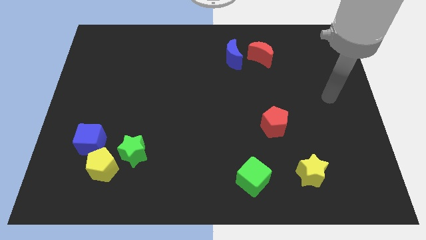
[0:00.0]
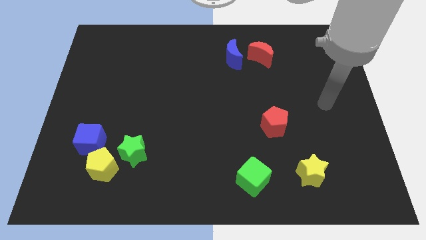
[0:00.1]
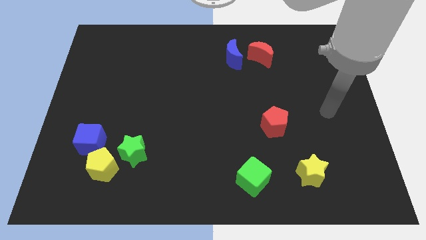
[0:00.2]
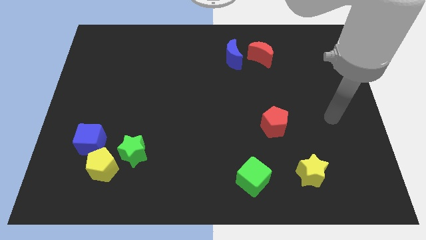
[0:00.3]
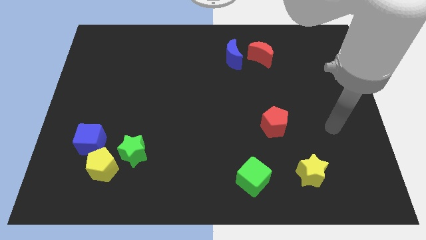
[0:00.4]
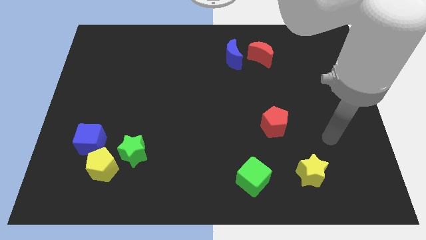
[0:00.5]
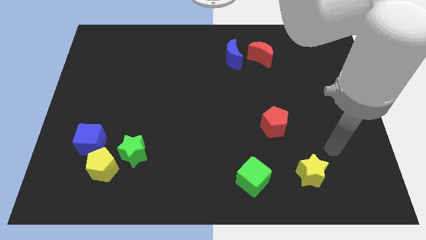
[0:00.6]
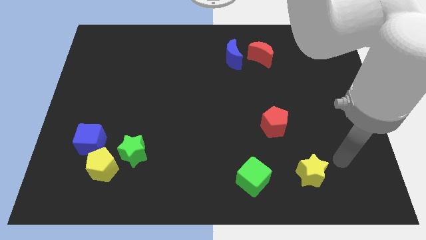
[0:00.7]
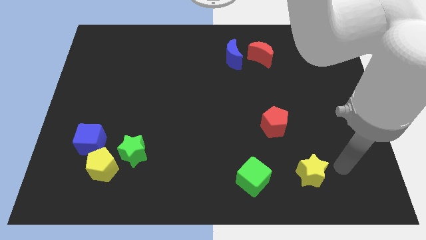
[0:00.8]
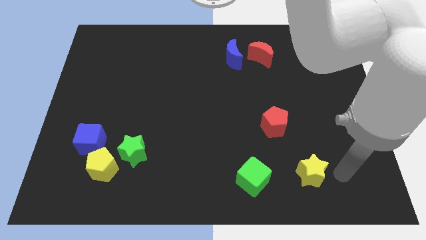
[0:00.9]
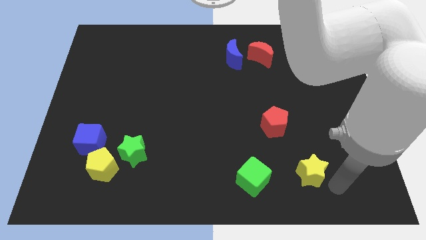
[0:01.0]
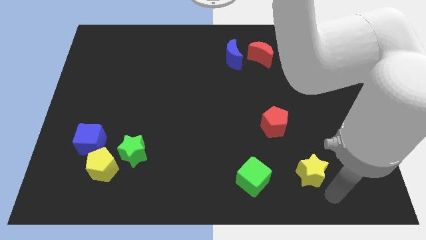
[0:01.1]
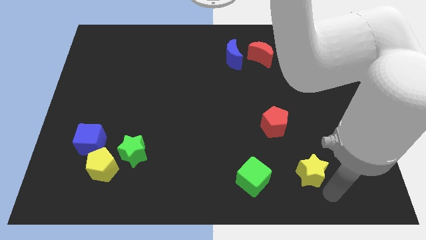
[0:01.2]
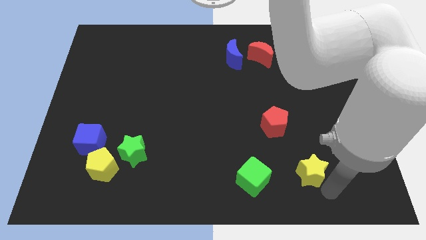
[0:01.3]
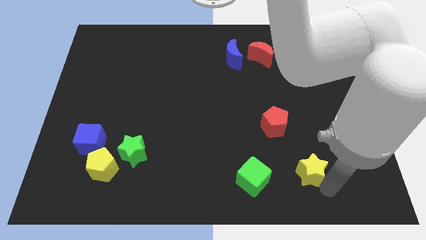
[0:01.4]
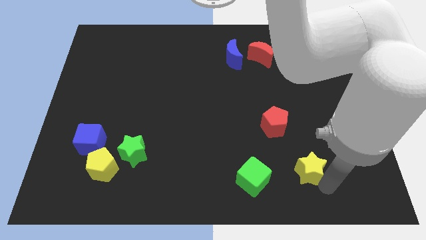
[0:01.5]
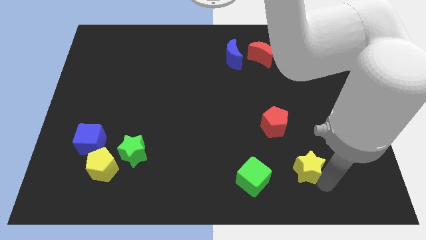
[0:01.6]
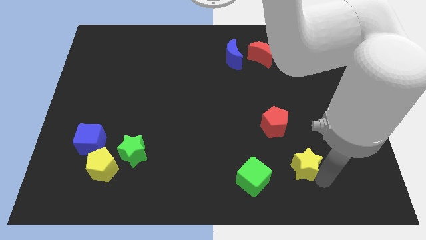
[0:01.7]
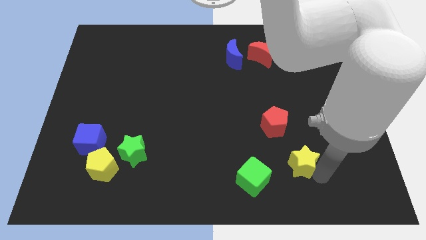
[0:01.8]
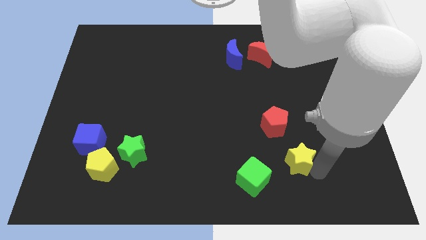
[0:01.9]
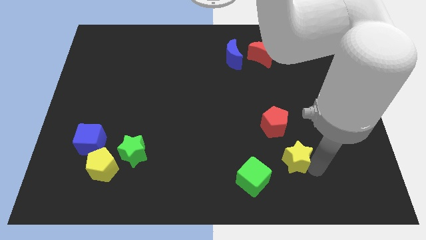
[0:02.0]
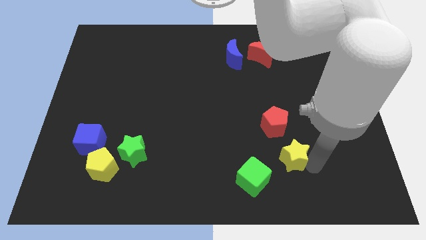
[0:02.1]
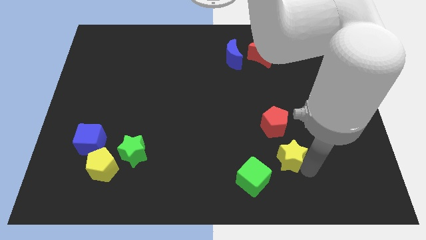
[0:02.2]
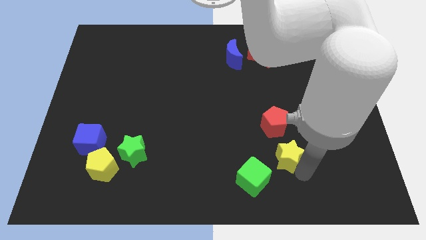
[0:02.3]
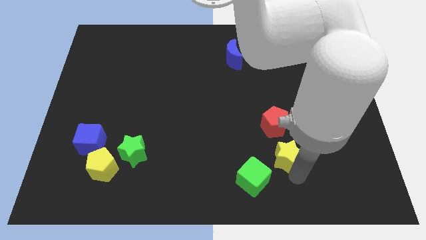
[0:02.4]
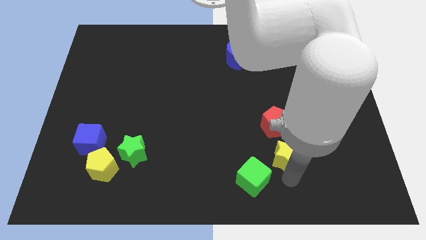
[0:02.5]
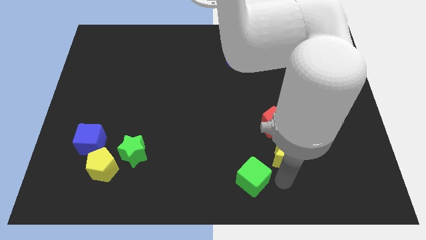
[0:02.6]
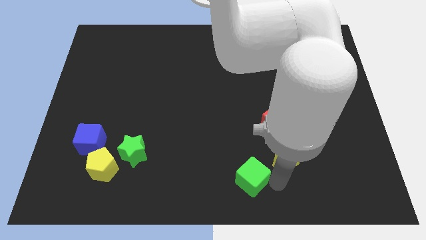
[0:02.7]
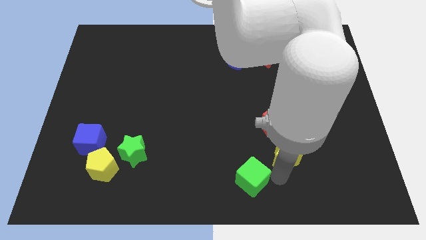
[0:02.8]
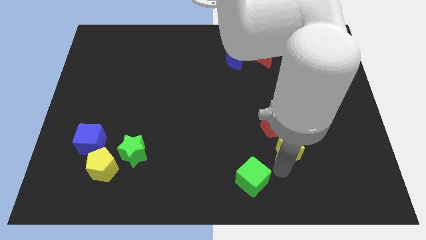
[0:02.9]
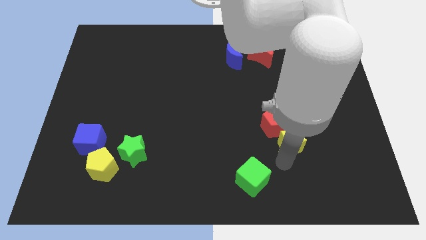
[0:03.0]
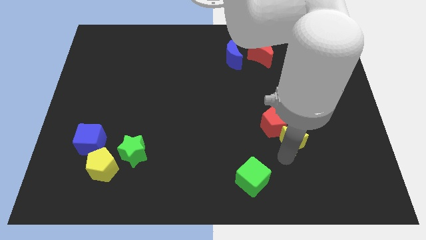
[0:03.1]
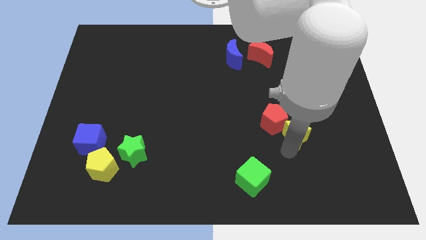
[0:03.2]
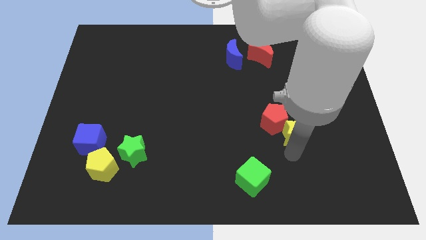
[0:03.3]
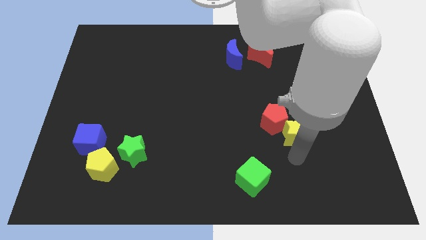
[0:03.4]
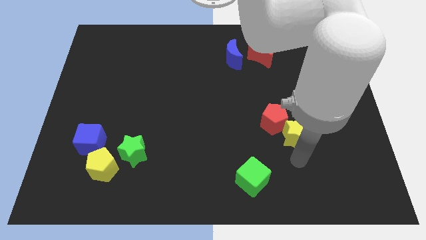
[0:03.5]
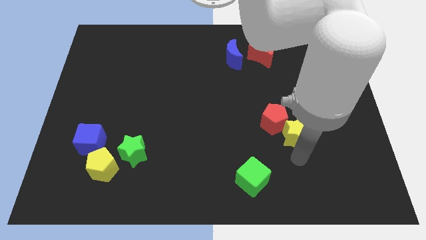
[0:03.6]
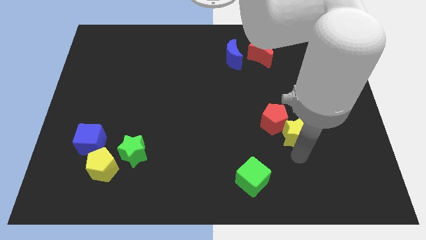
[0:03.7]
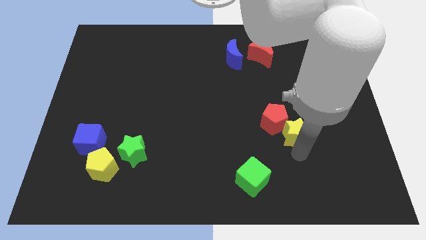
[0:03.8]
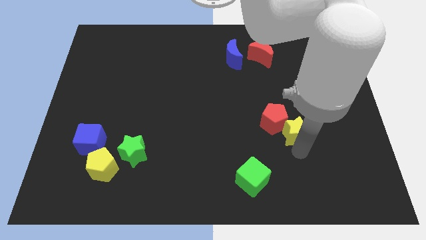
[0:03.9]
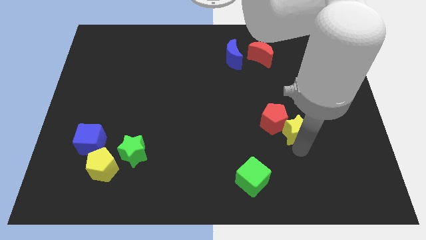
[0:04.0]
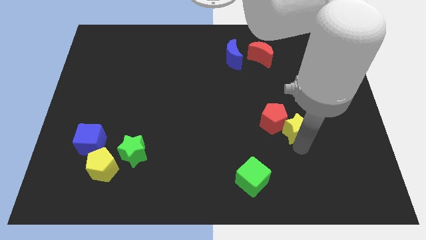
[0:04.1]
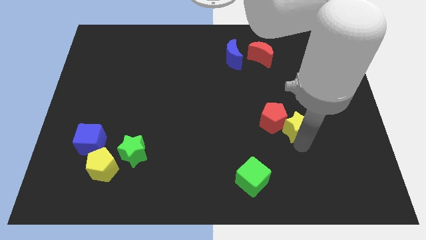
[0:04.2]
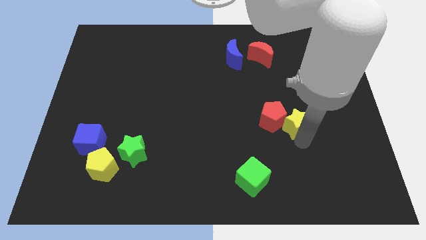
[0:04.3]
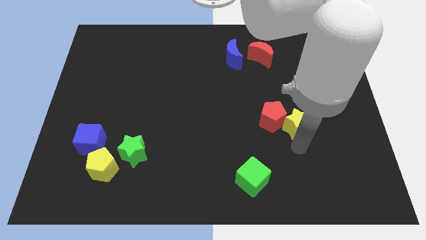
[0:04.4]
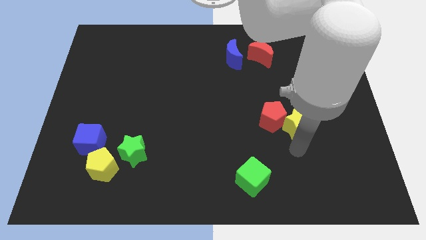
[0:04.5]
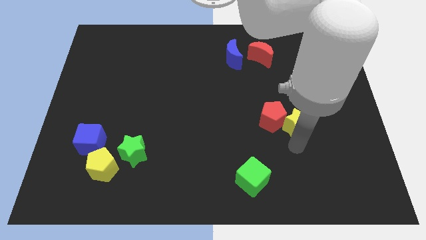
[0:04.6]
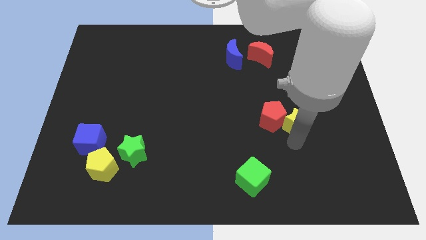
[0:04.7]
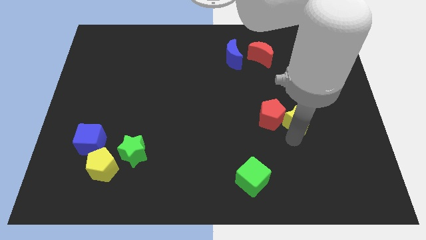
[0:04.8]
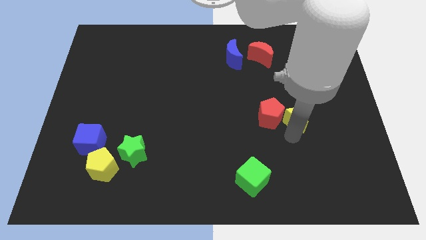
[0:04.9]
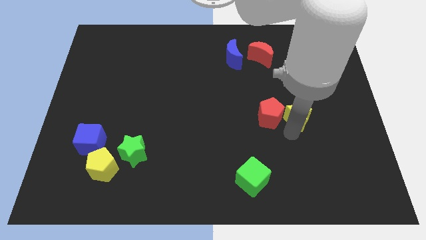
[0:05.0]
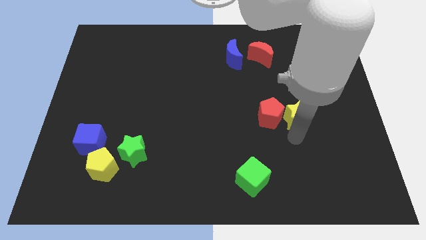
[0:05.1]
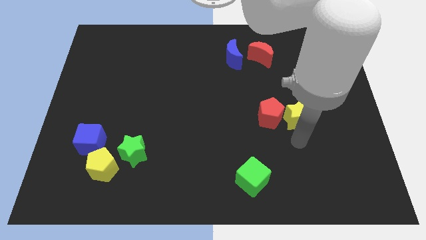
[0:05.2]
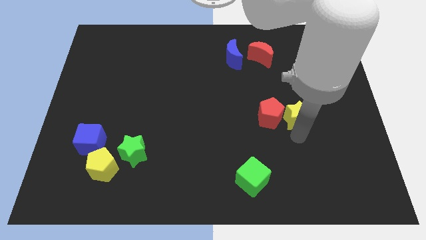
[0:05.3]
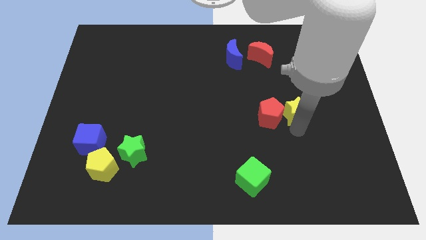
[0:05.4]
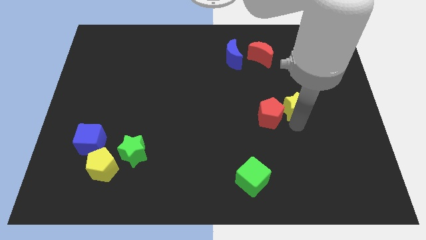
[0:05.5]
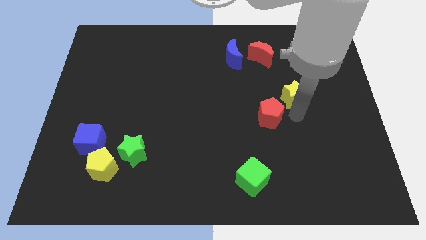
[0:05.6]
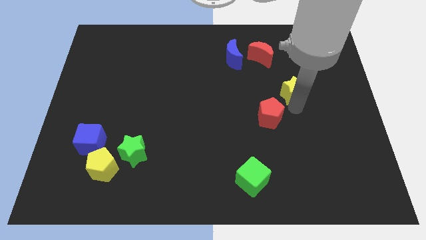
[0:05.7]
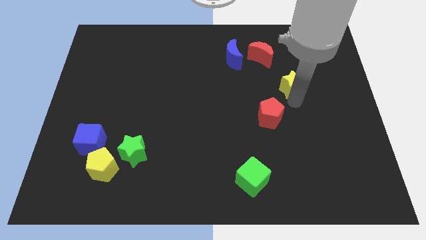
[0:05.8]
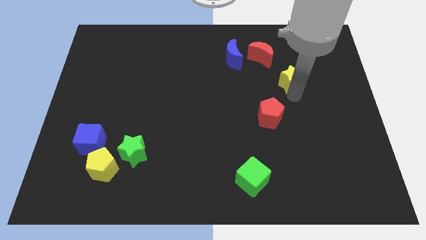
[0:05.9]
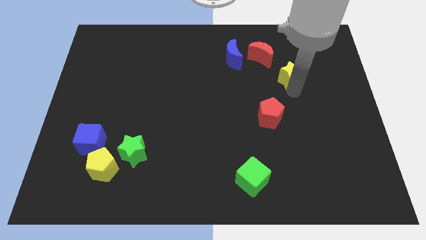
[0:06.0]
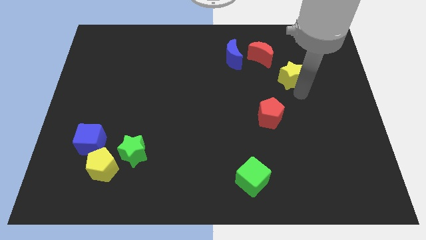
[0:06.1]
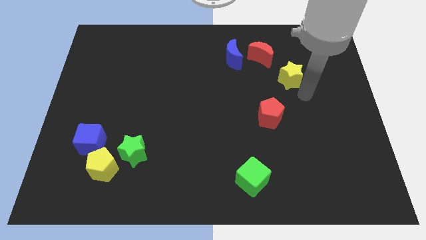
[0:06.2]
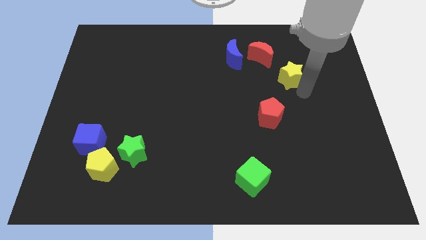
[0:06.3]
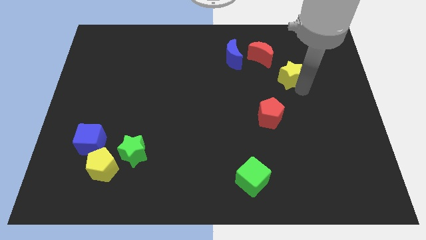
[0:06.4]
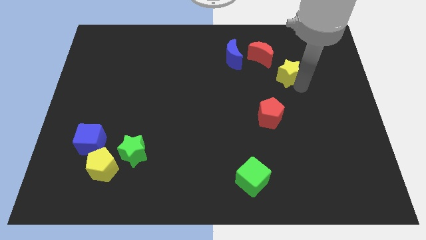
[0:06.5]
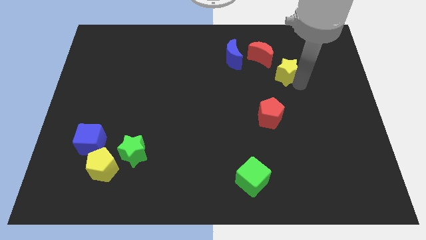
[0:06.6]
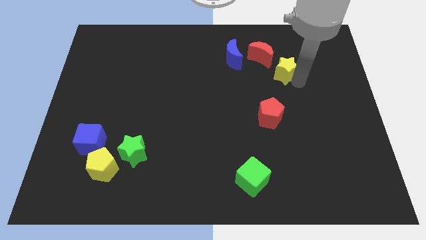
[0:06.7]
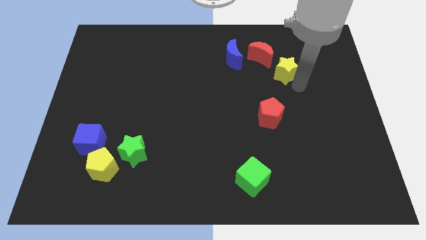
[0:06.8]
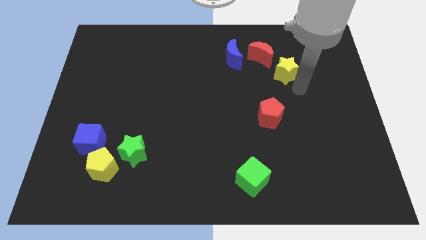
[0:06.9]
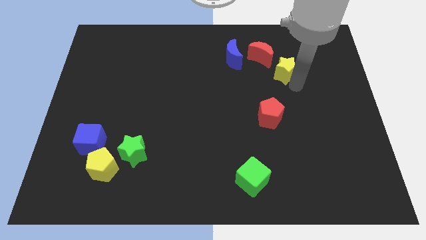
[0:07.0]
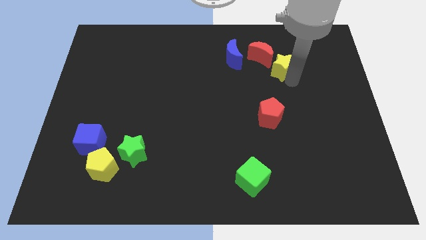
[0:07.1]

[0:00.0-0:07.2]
slide the yellow star to the right of the blue moon

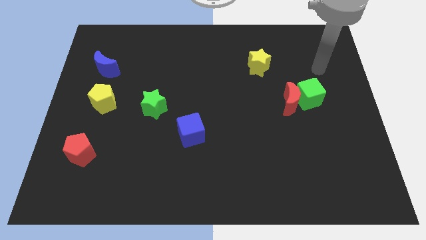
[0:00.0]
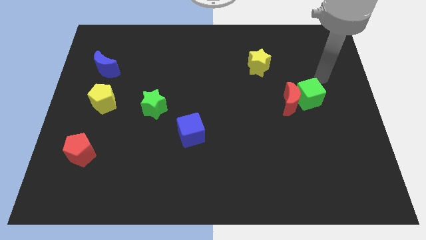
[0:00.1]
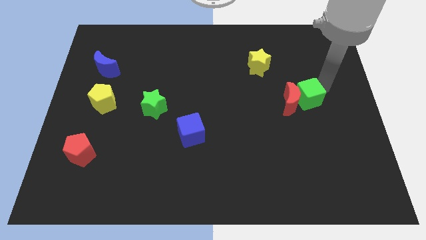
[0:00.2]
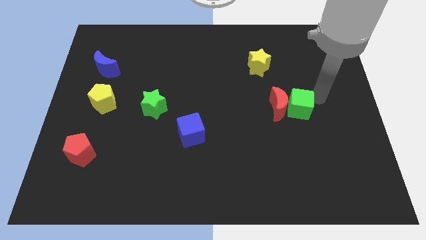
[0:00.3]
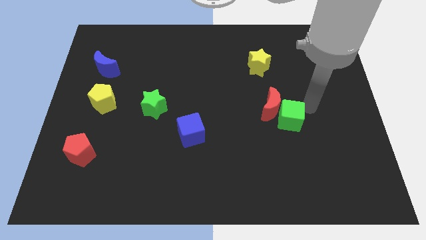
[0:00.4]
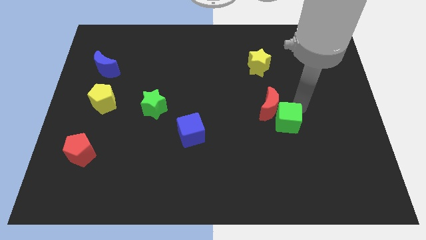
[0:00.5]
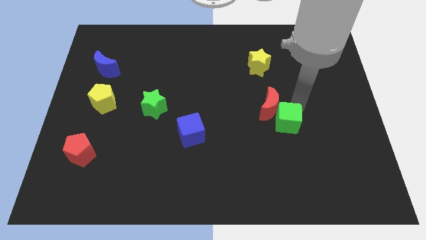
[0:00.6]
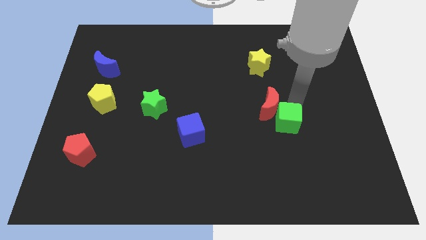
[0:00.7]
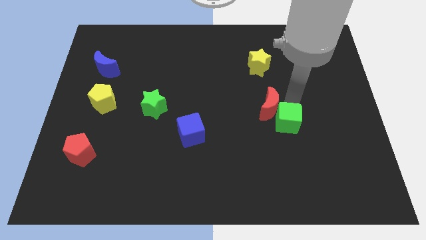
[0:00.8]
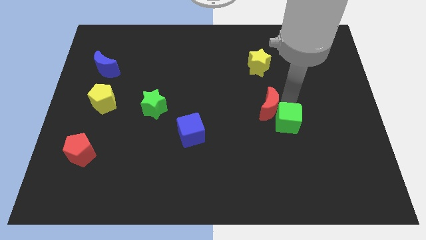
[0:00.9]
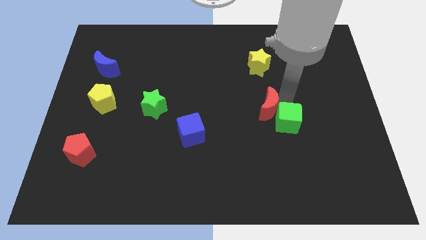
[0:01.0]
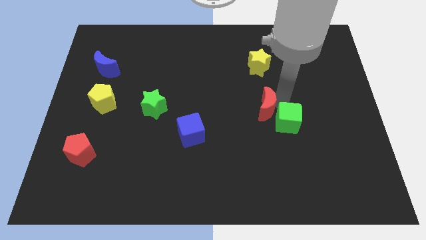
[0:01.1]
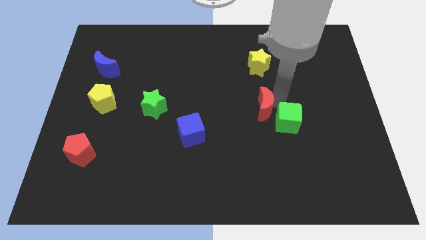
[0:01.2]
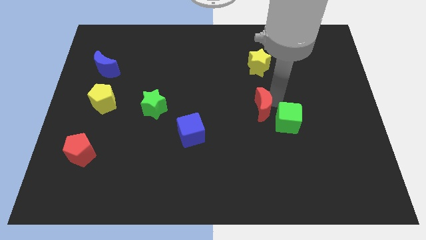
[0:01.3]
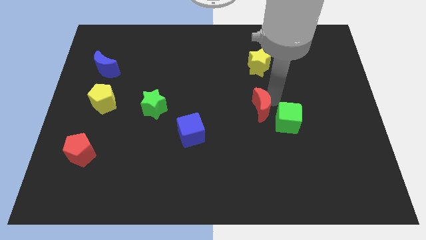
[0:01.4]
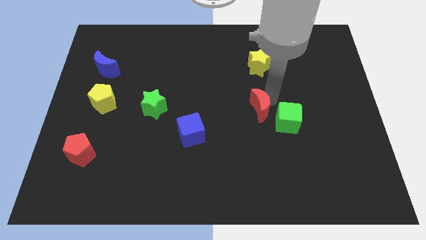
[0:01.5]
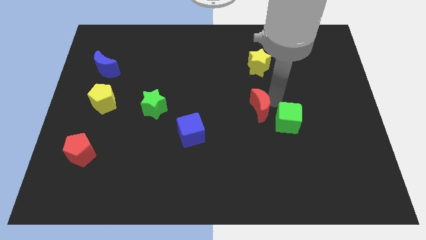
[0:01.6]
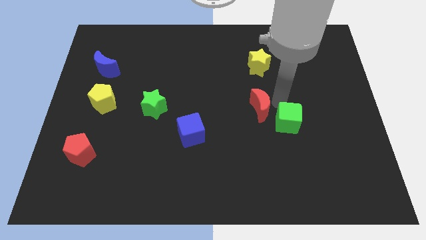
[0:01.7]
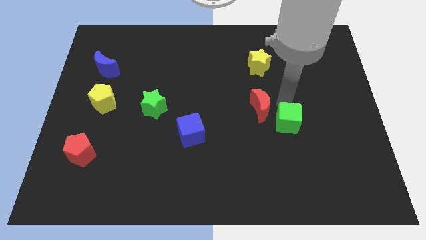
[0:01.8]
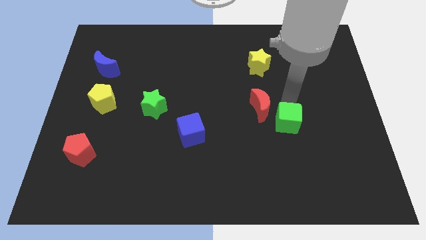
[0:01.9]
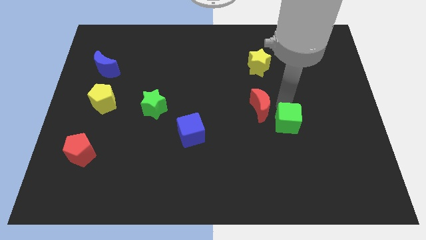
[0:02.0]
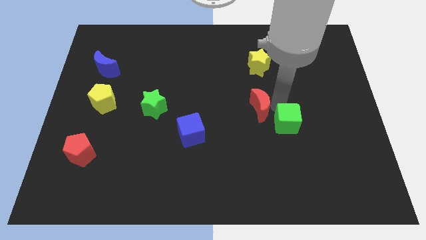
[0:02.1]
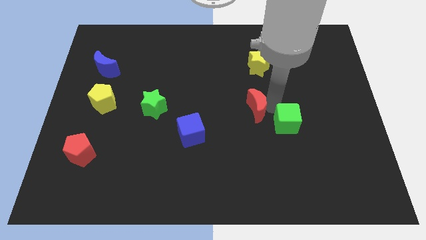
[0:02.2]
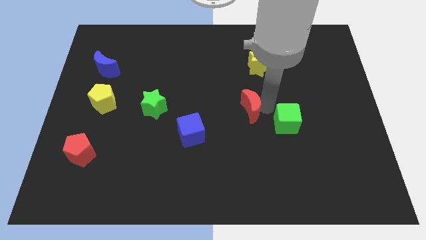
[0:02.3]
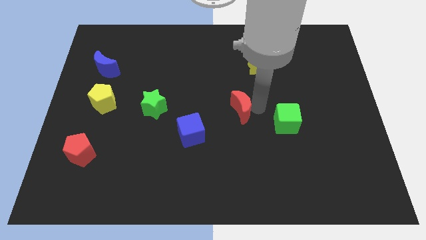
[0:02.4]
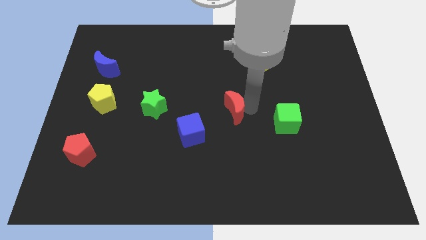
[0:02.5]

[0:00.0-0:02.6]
push the red moon to the top right side of the blue cube
